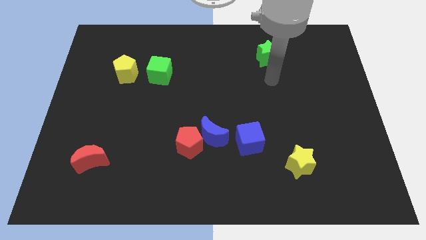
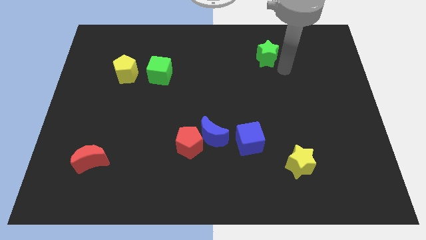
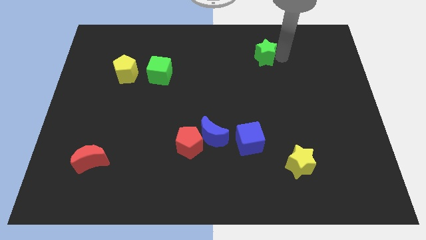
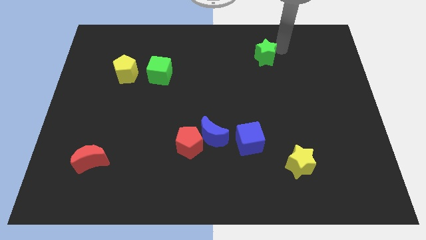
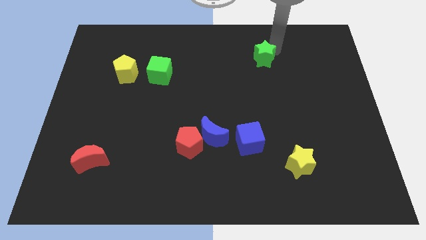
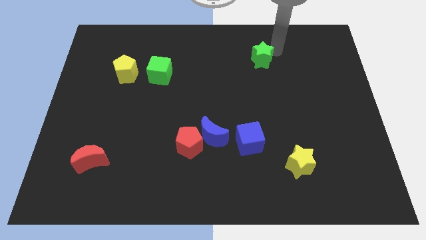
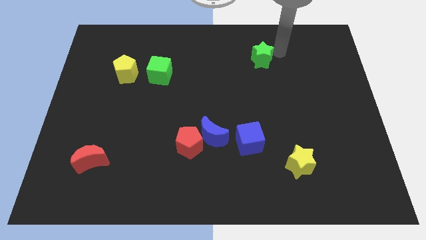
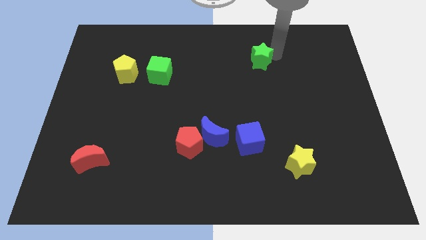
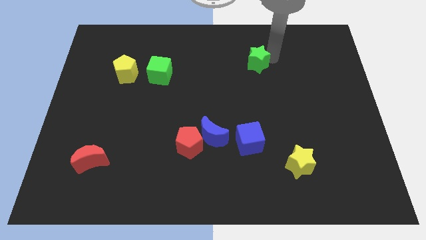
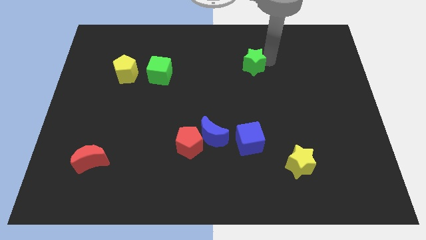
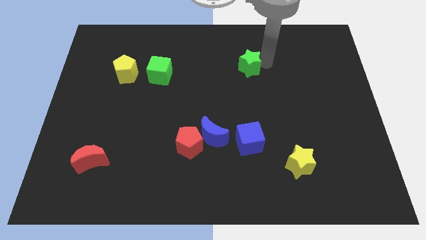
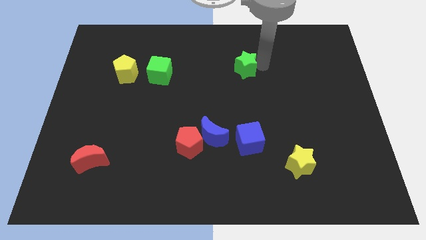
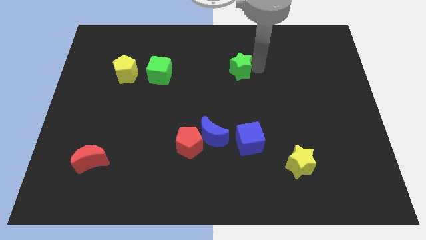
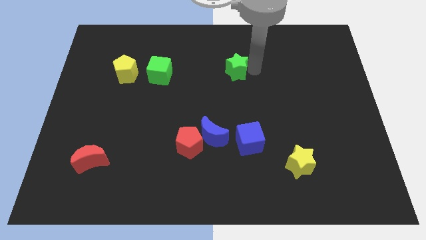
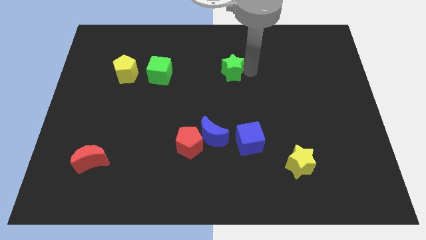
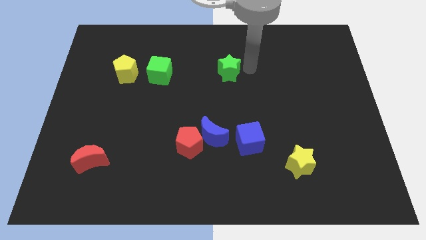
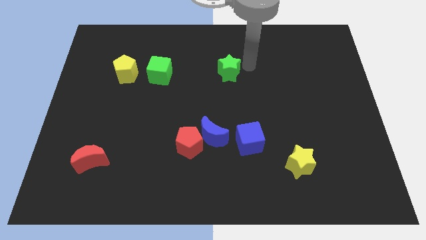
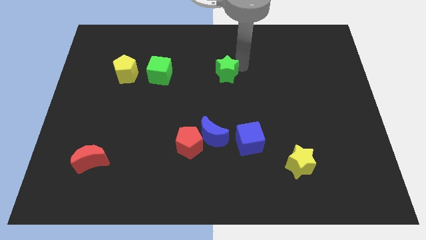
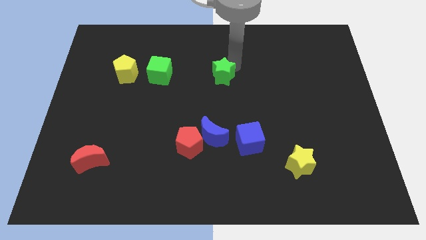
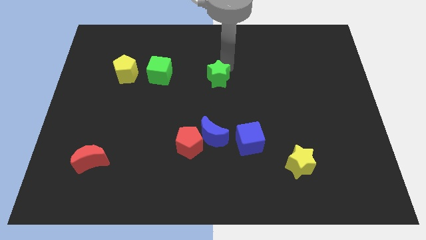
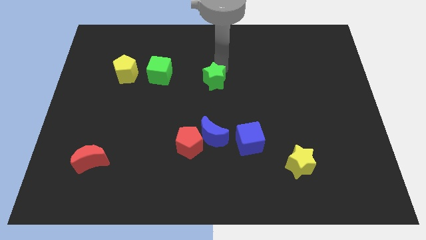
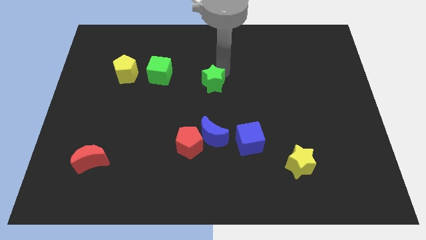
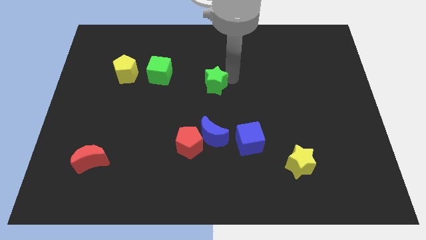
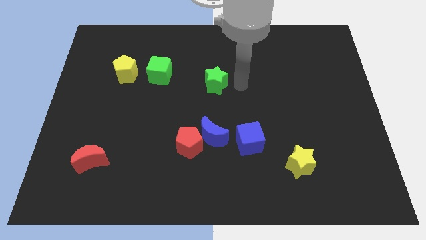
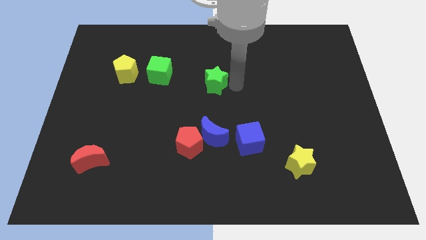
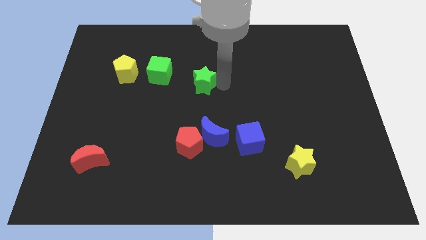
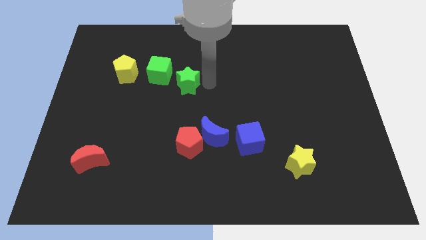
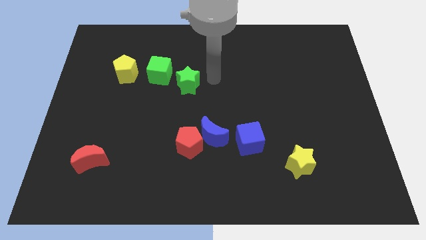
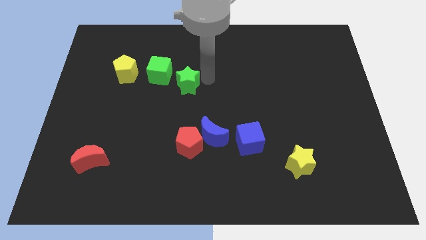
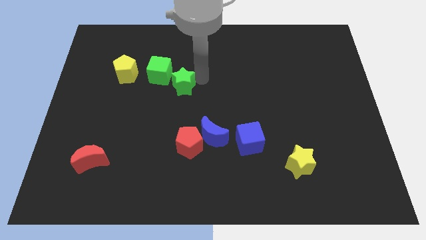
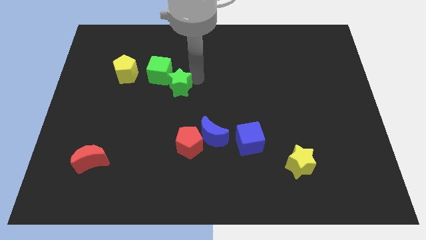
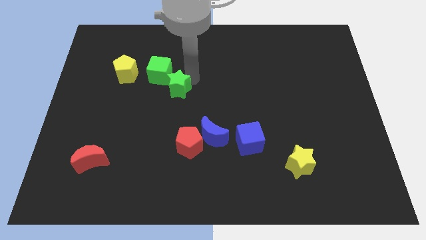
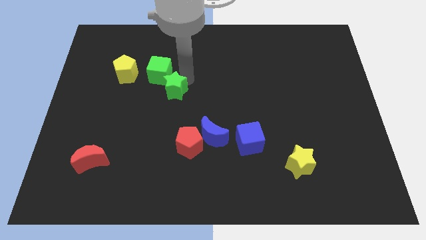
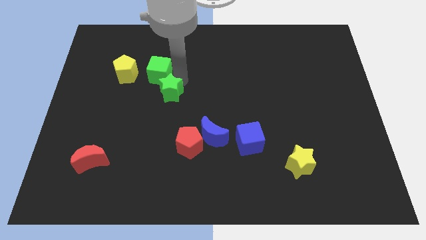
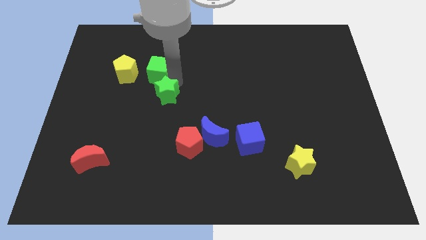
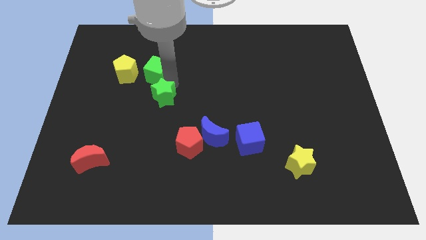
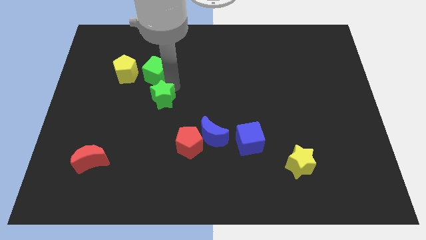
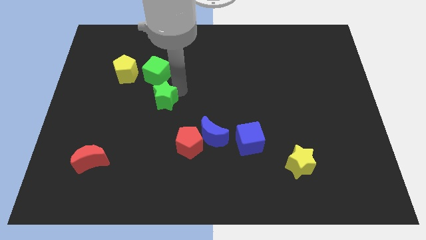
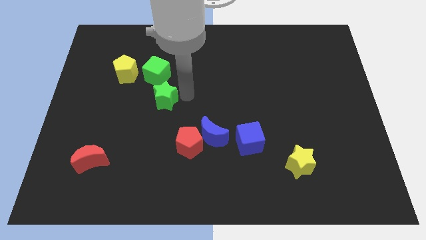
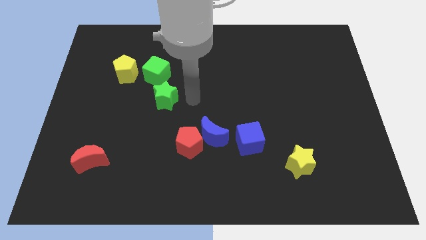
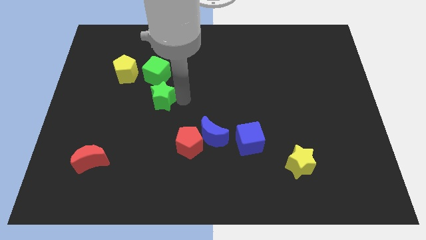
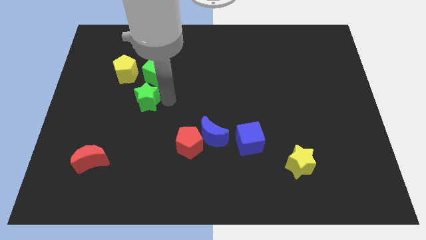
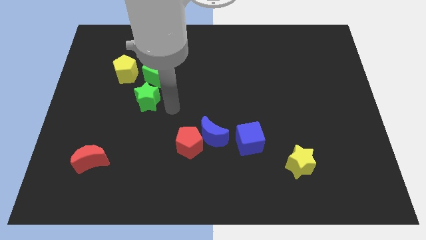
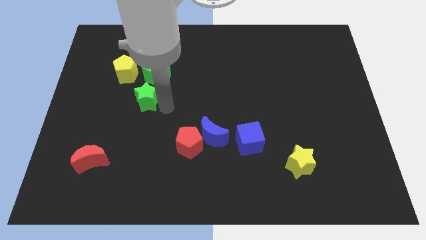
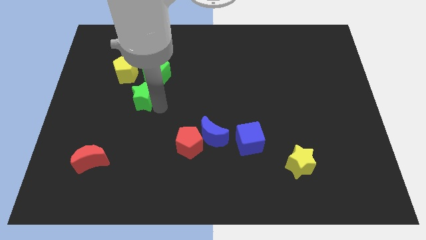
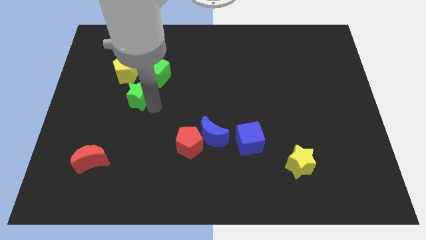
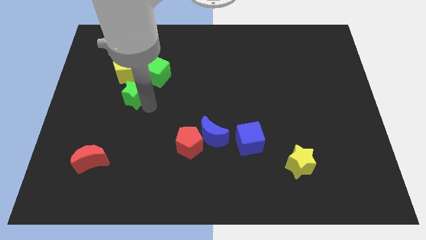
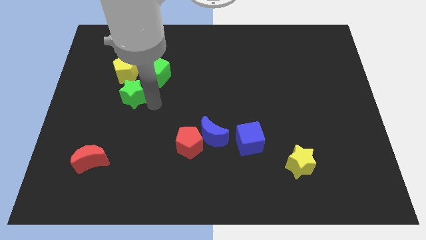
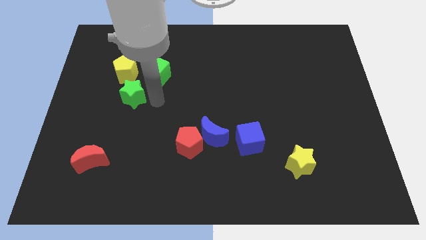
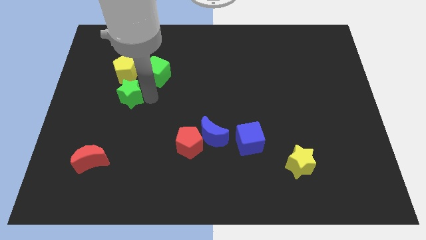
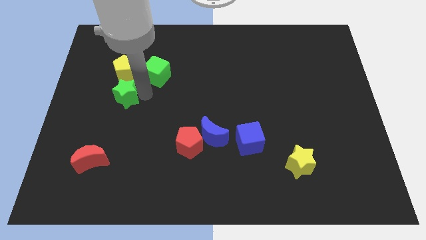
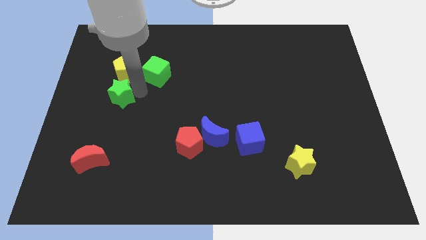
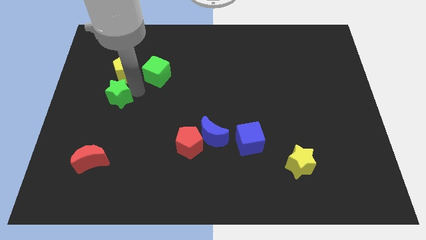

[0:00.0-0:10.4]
push the green star to the bottom left side of the yellow pentagon

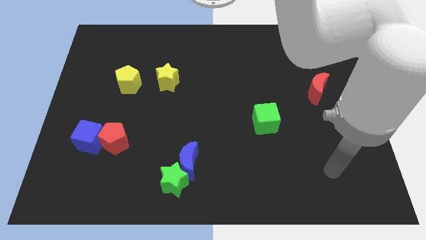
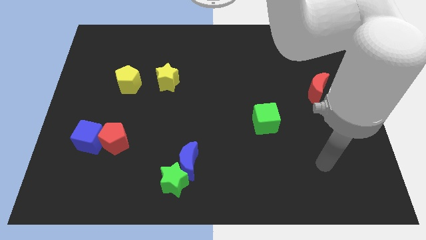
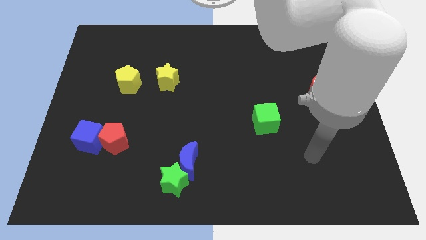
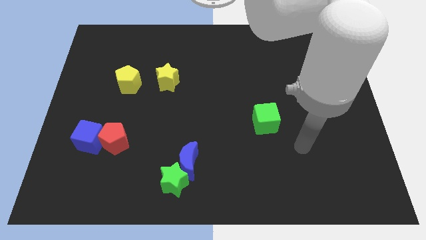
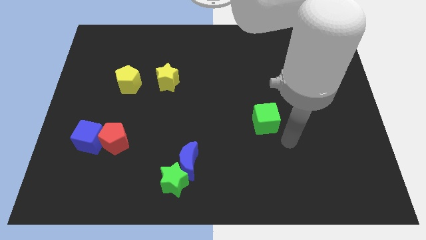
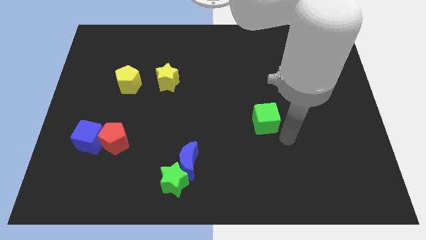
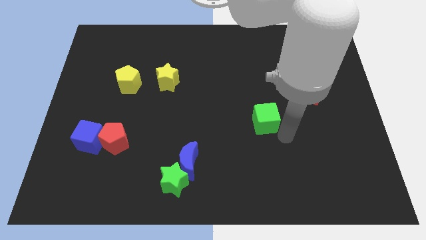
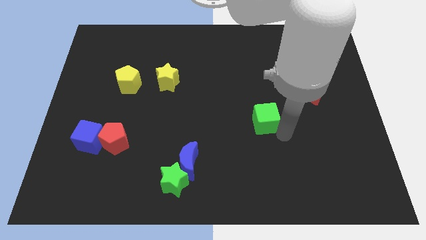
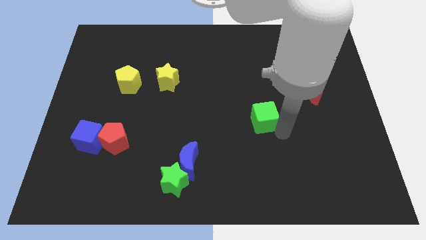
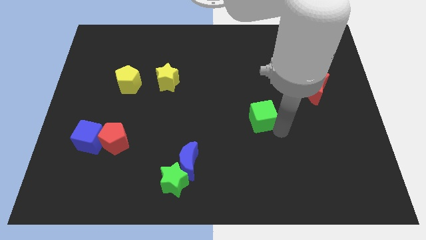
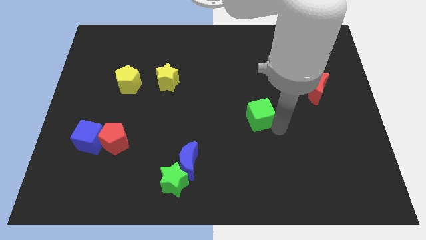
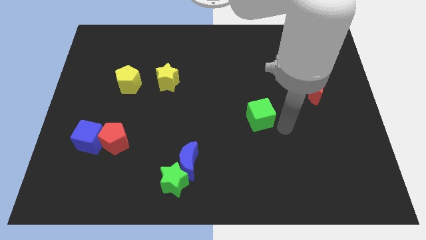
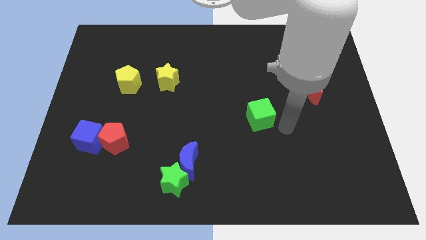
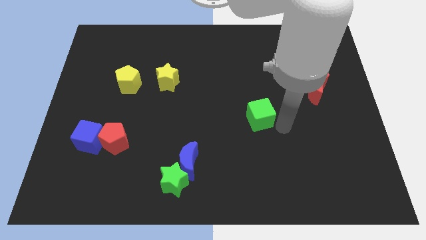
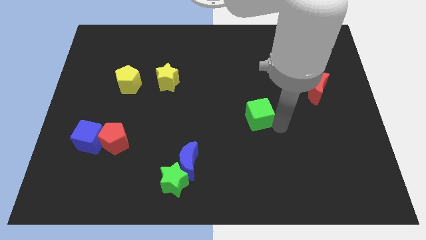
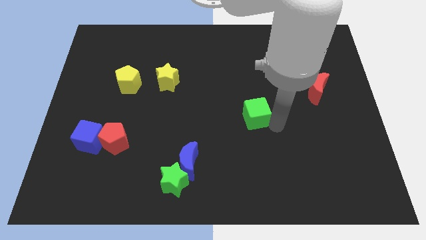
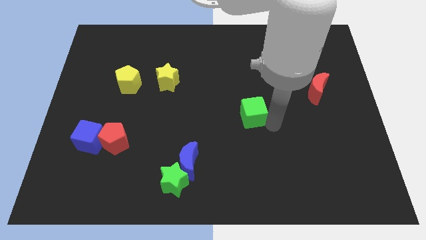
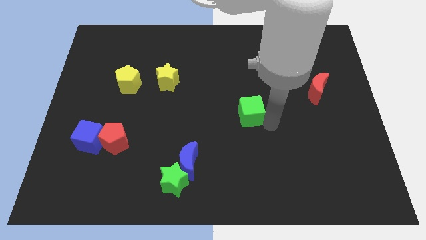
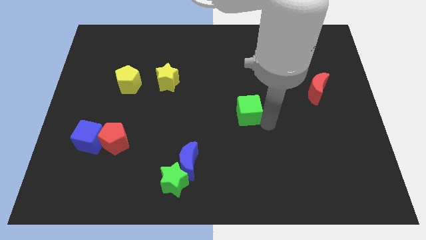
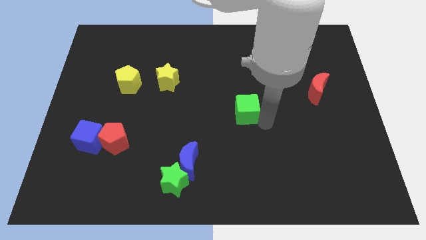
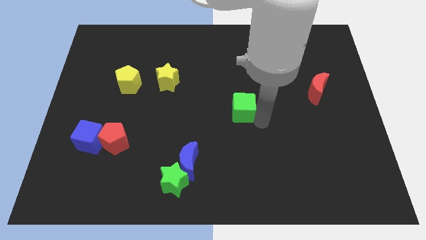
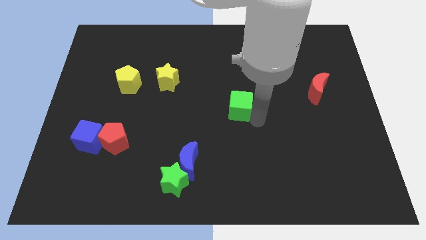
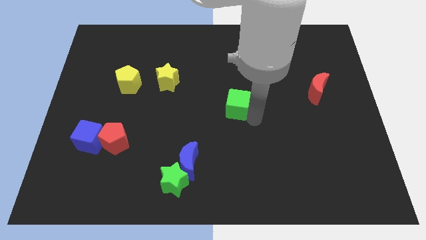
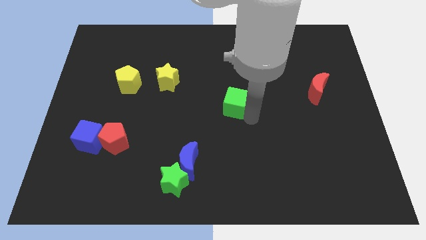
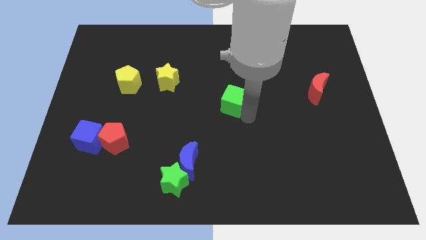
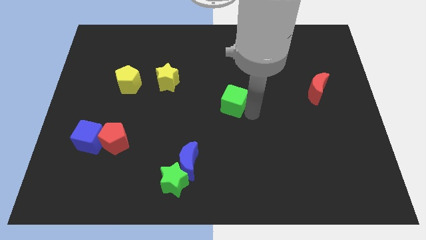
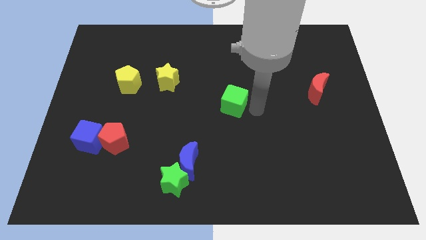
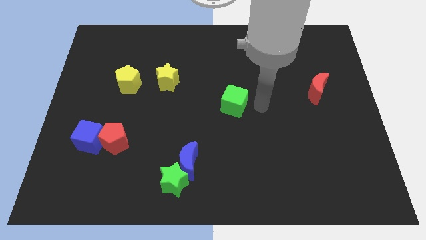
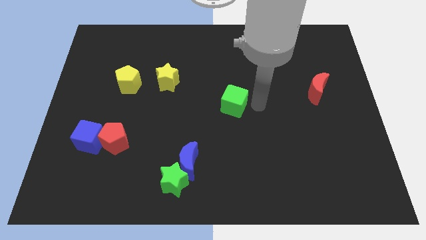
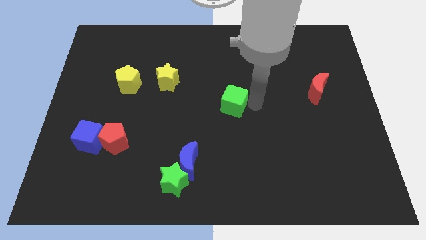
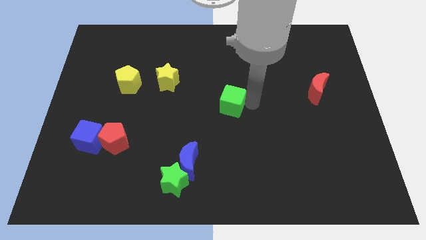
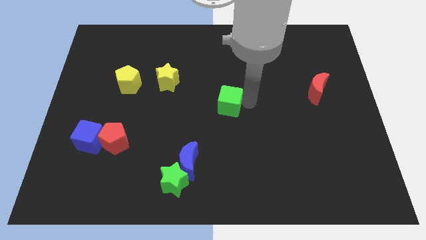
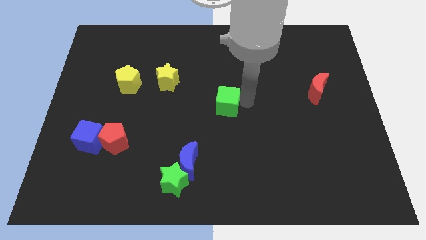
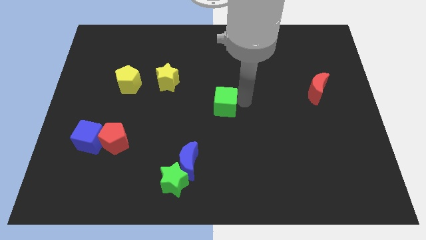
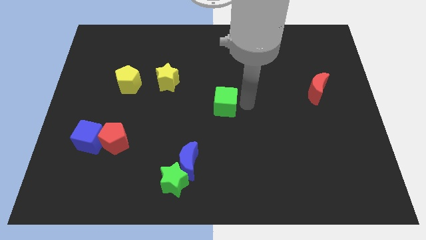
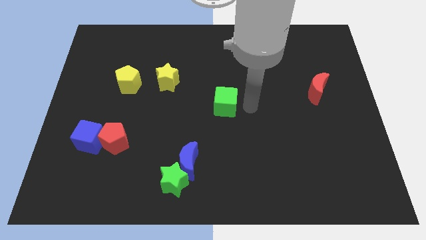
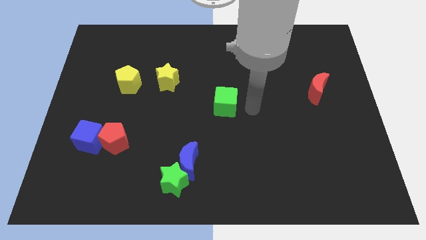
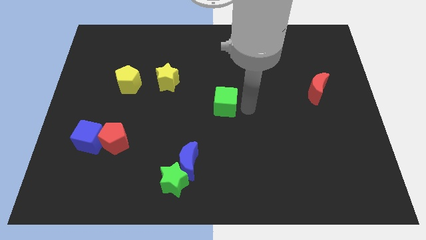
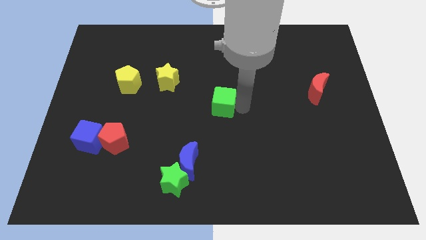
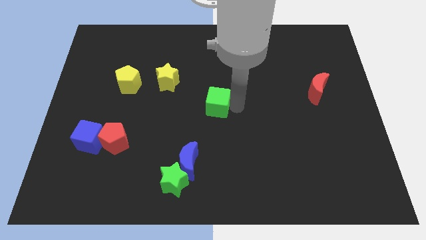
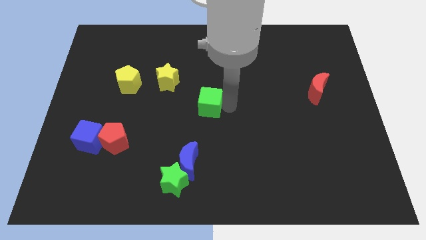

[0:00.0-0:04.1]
put the green cube to the bottom right of the yellow star
